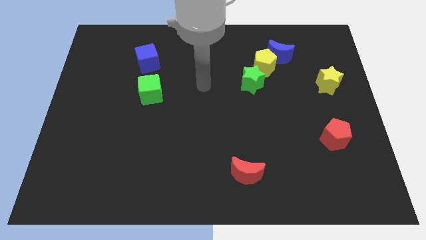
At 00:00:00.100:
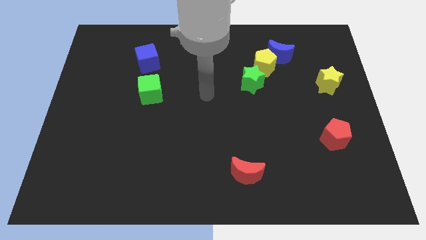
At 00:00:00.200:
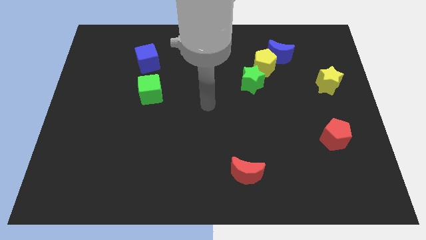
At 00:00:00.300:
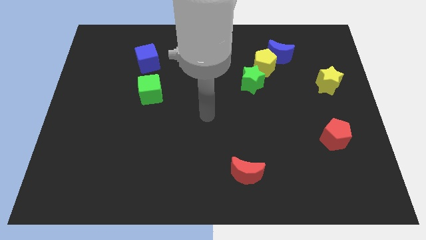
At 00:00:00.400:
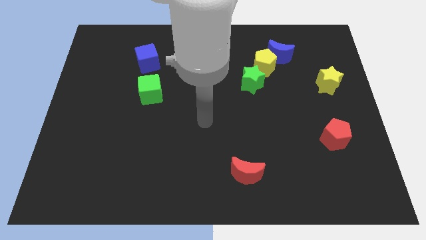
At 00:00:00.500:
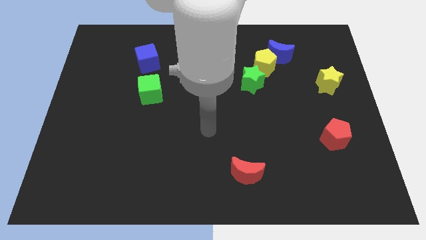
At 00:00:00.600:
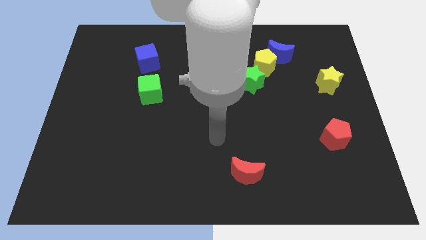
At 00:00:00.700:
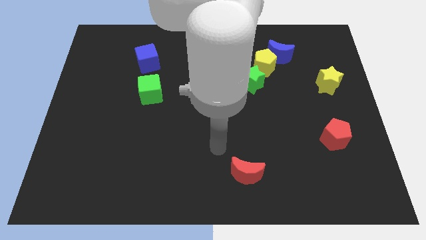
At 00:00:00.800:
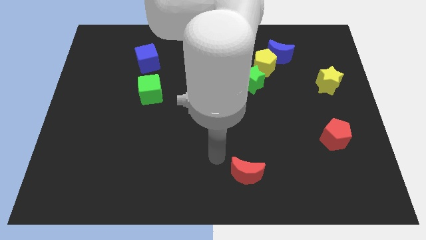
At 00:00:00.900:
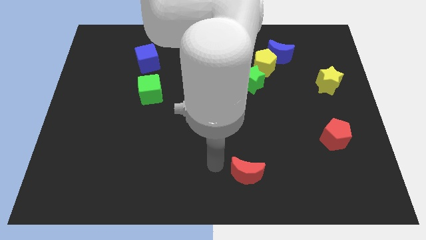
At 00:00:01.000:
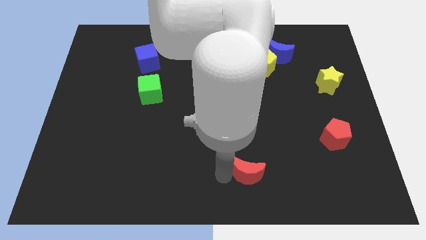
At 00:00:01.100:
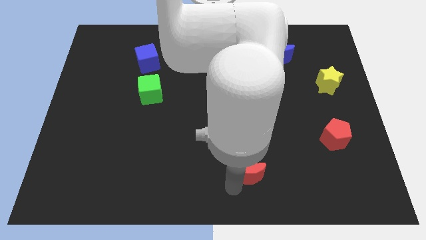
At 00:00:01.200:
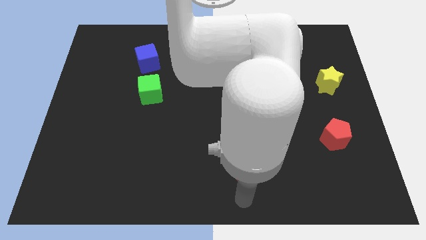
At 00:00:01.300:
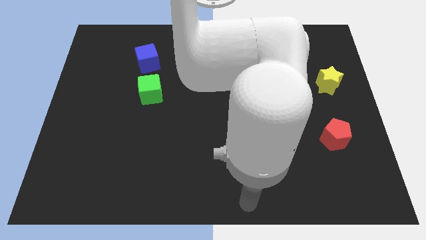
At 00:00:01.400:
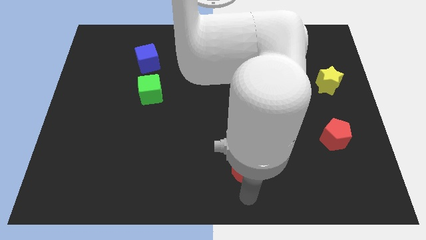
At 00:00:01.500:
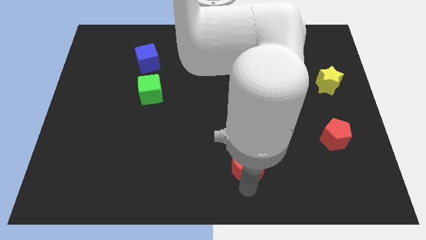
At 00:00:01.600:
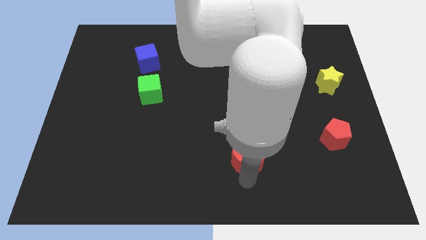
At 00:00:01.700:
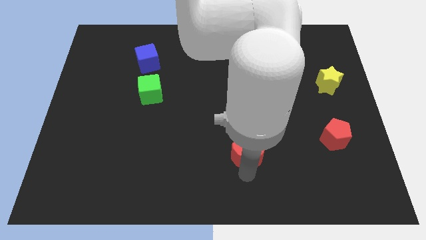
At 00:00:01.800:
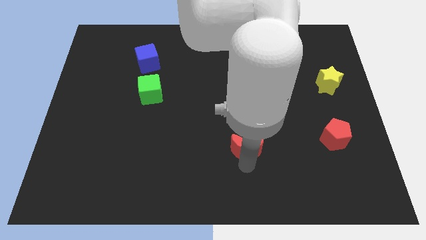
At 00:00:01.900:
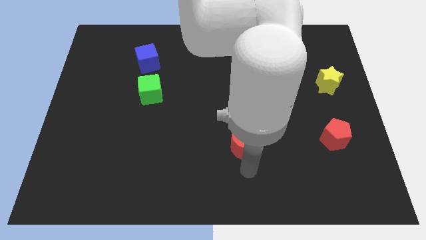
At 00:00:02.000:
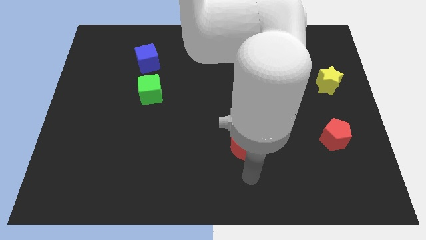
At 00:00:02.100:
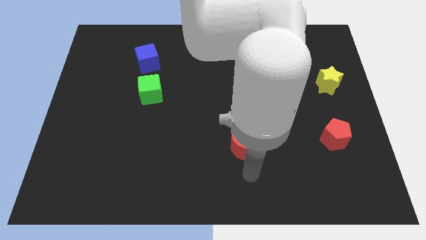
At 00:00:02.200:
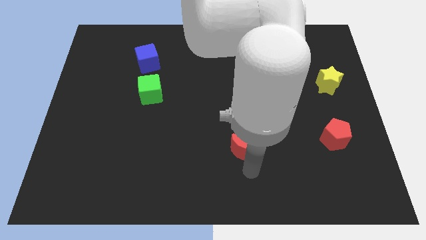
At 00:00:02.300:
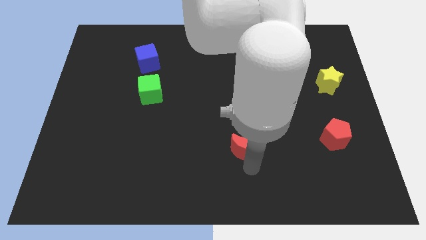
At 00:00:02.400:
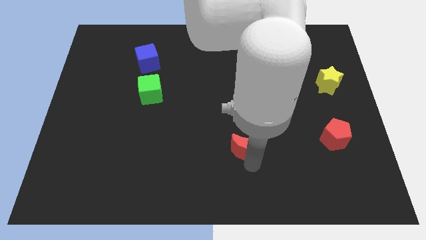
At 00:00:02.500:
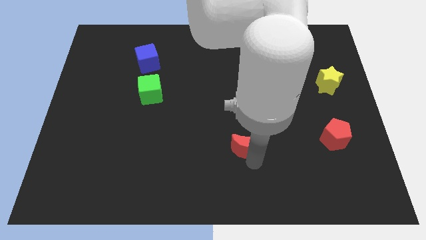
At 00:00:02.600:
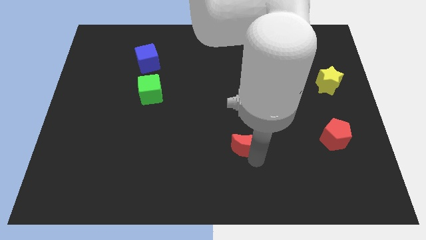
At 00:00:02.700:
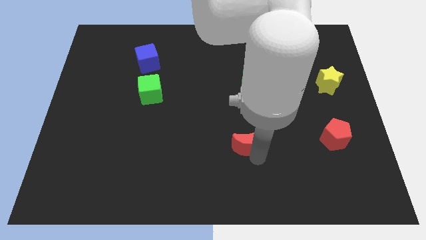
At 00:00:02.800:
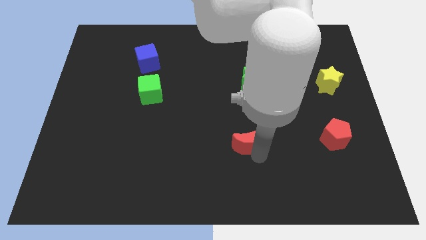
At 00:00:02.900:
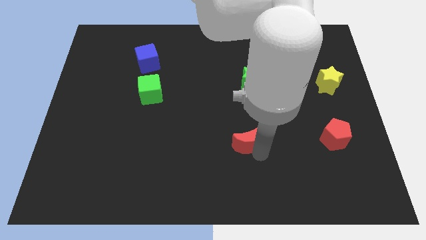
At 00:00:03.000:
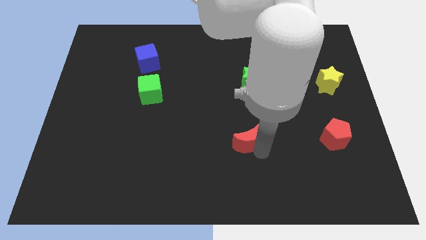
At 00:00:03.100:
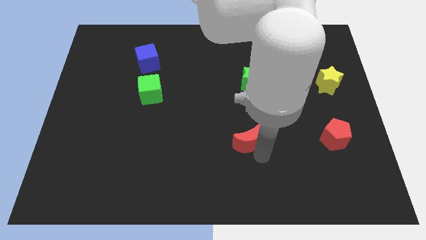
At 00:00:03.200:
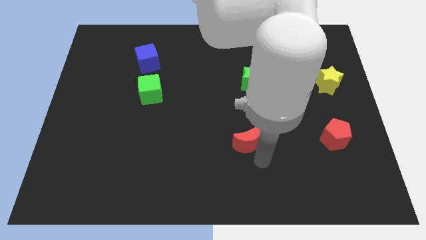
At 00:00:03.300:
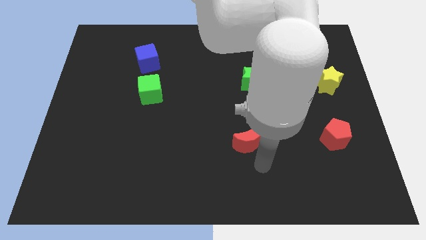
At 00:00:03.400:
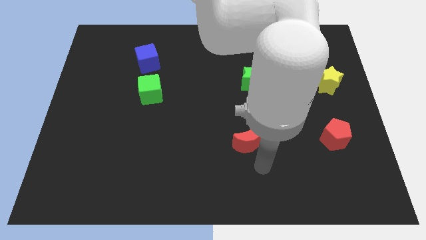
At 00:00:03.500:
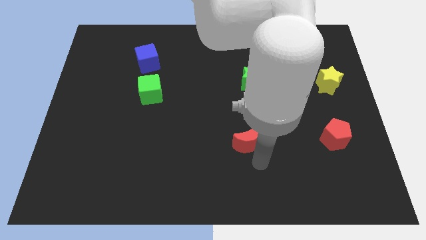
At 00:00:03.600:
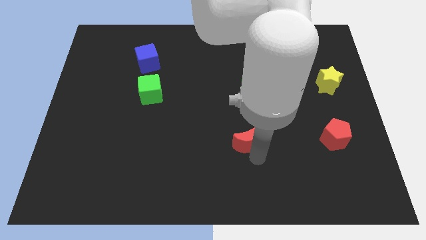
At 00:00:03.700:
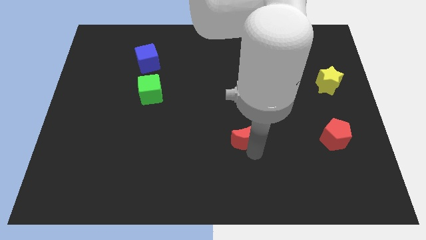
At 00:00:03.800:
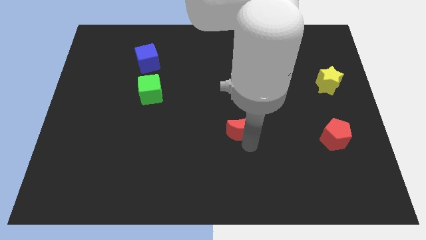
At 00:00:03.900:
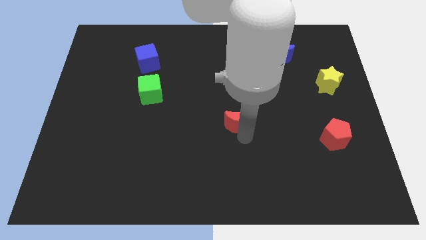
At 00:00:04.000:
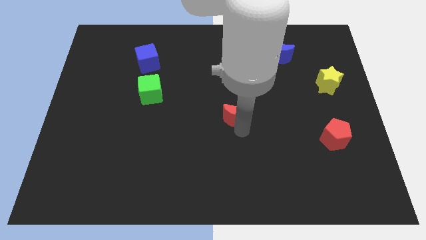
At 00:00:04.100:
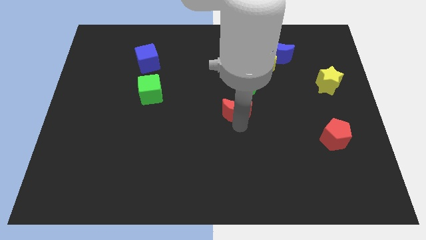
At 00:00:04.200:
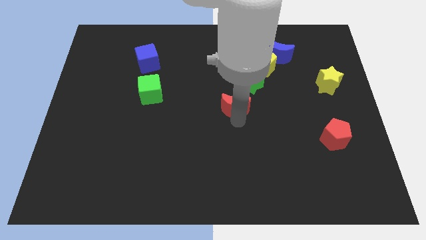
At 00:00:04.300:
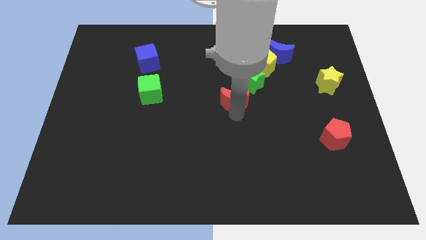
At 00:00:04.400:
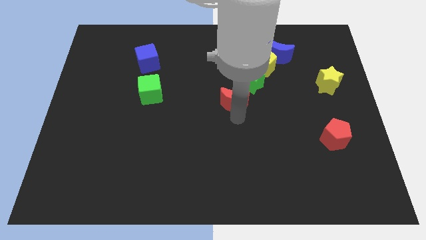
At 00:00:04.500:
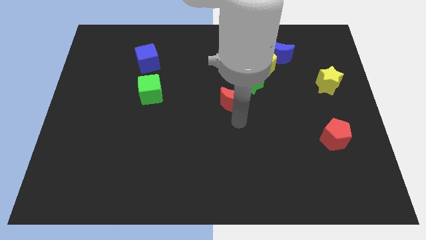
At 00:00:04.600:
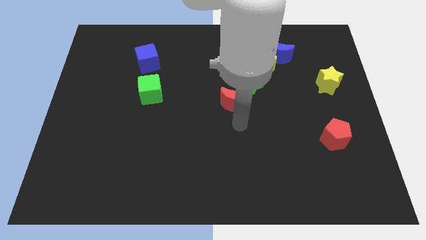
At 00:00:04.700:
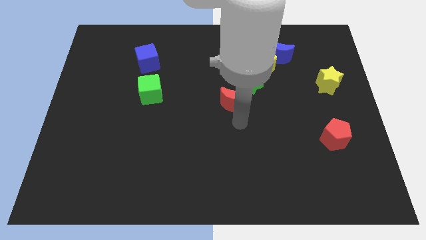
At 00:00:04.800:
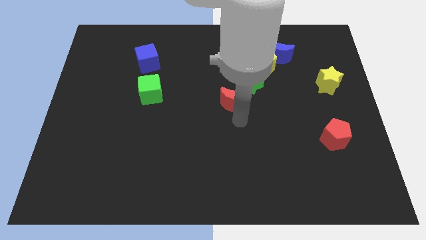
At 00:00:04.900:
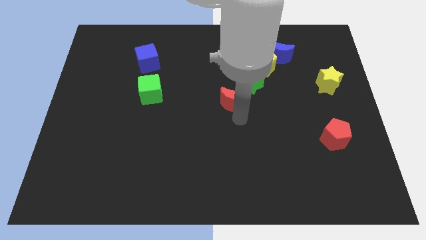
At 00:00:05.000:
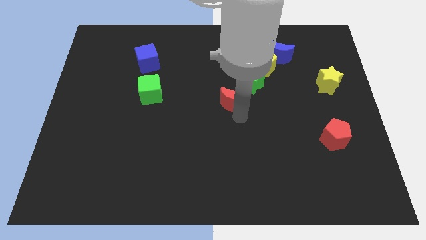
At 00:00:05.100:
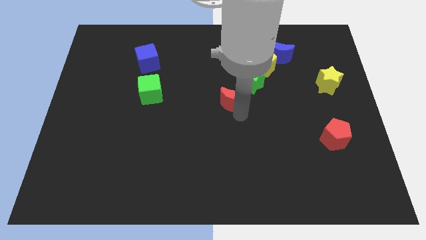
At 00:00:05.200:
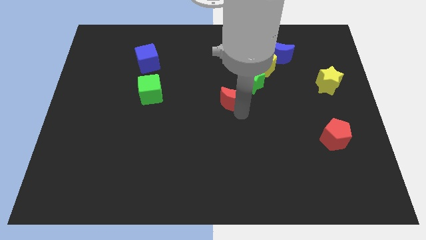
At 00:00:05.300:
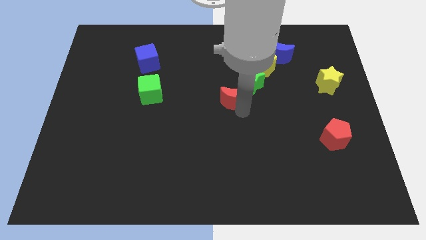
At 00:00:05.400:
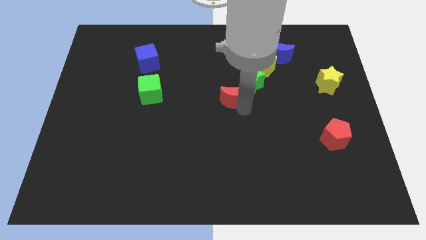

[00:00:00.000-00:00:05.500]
slide the red moon up

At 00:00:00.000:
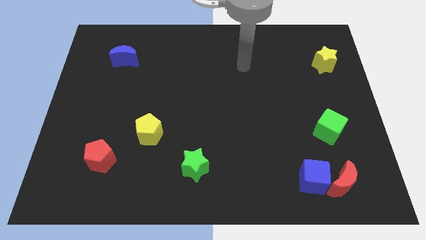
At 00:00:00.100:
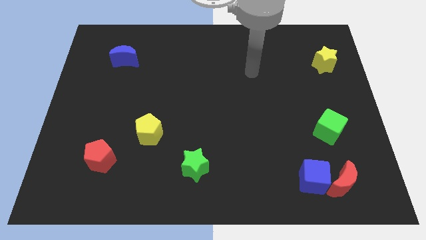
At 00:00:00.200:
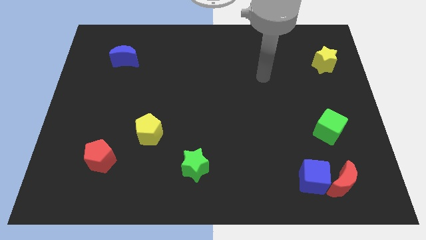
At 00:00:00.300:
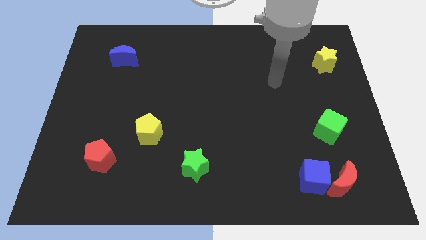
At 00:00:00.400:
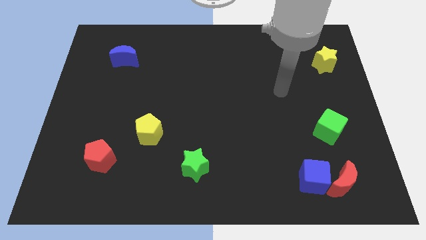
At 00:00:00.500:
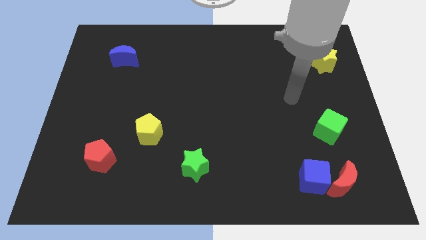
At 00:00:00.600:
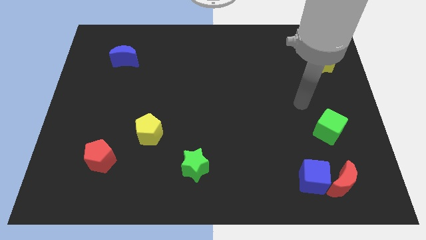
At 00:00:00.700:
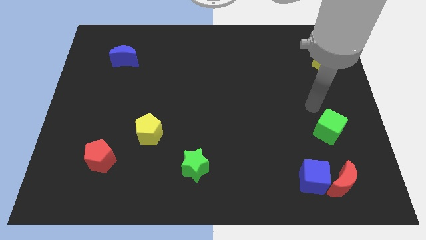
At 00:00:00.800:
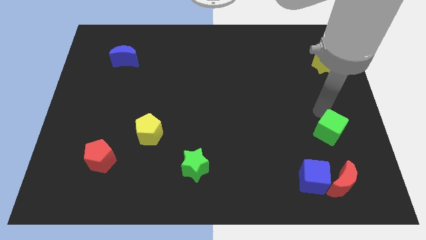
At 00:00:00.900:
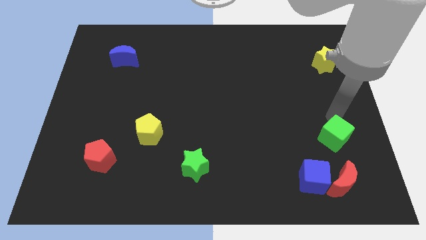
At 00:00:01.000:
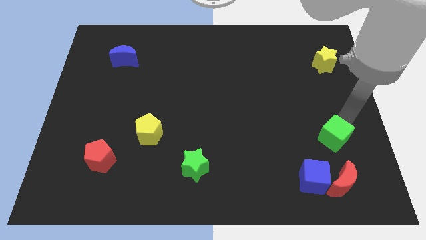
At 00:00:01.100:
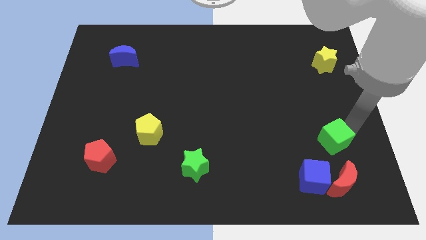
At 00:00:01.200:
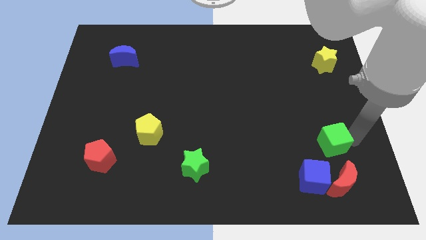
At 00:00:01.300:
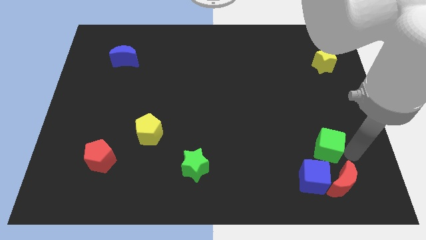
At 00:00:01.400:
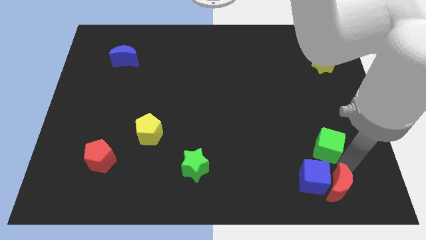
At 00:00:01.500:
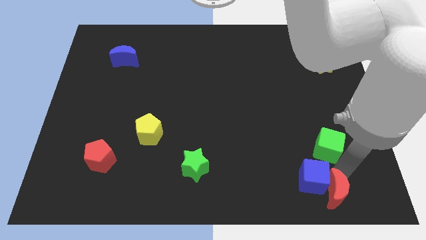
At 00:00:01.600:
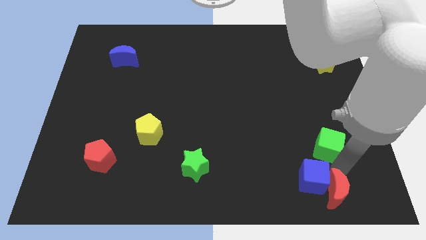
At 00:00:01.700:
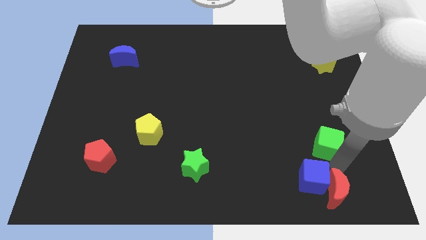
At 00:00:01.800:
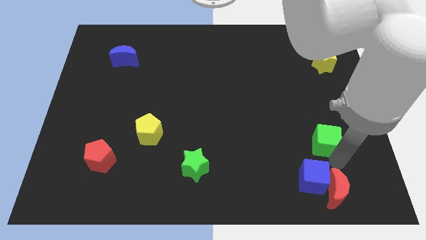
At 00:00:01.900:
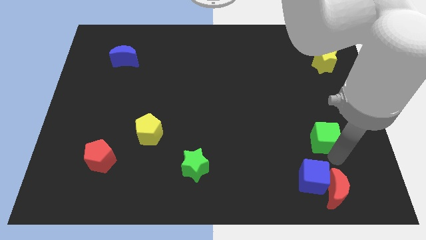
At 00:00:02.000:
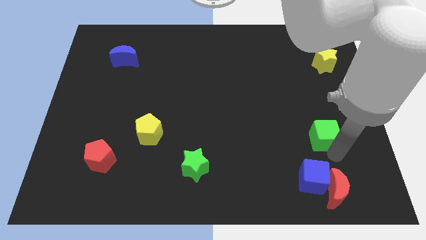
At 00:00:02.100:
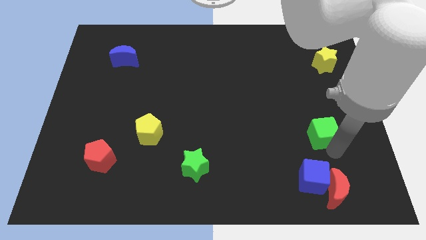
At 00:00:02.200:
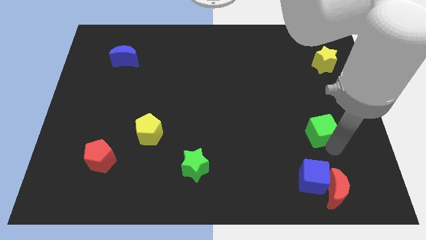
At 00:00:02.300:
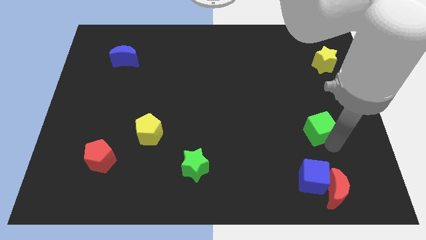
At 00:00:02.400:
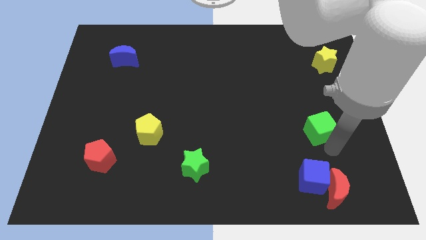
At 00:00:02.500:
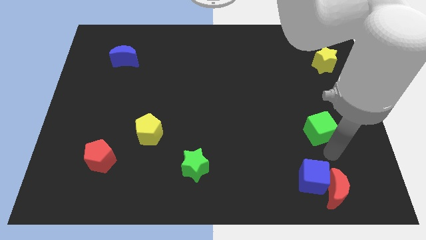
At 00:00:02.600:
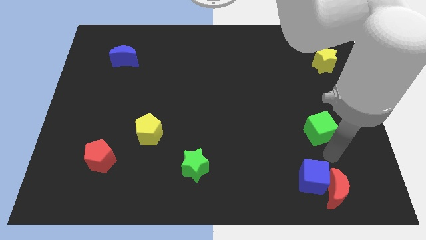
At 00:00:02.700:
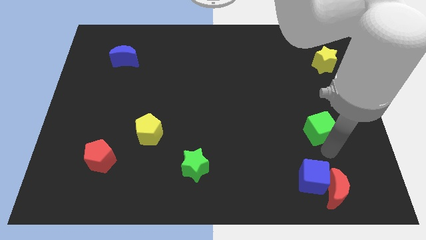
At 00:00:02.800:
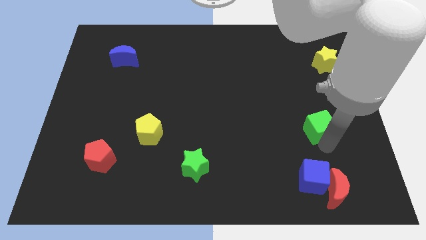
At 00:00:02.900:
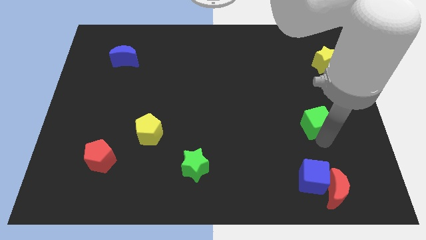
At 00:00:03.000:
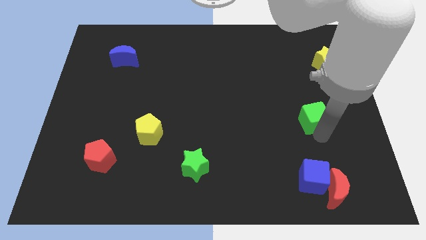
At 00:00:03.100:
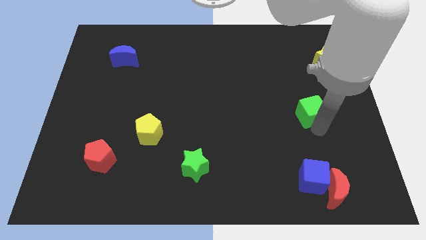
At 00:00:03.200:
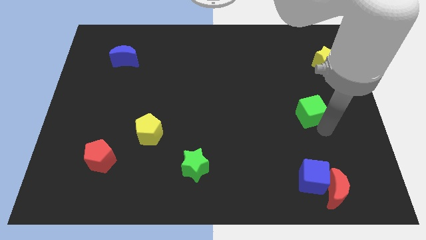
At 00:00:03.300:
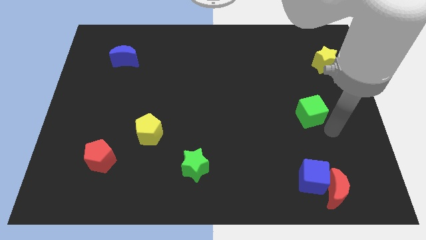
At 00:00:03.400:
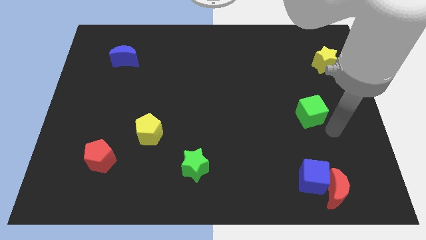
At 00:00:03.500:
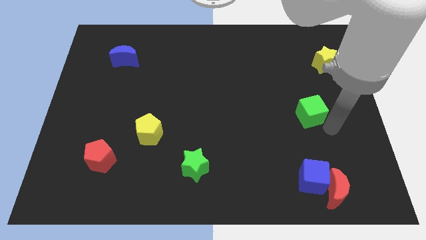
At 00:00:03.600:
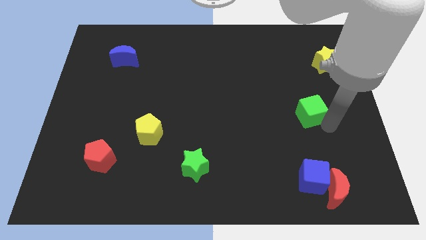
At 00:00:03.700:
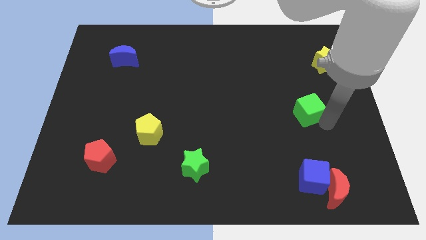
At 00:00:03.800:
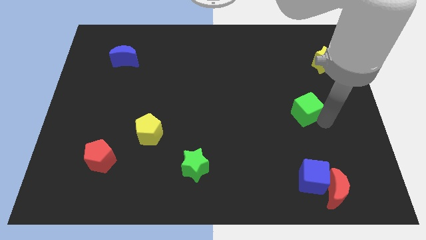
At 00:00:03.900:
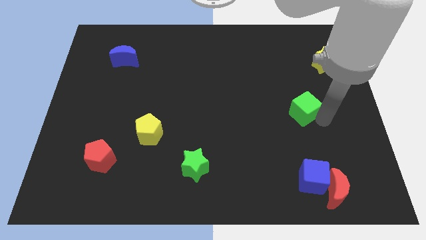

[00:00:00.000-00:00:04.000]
slide the green cube upwards and left diagonally a bit
